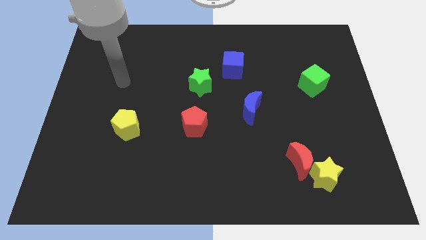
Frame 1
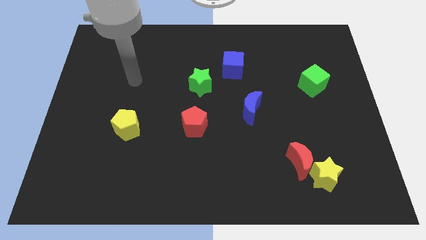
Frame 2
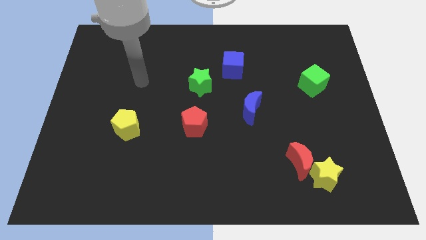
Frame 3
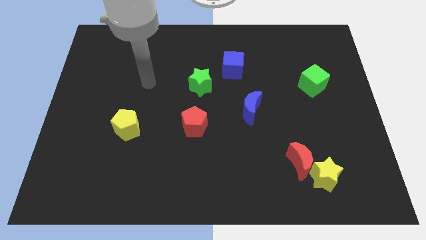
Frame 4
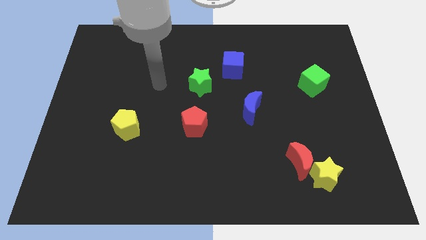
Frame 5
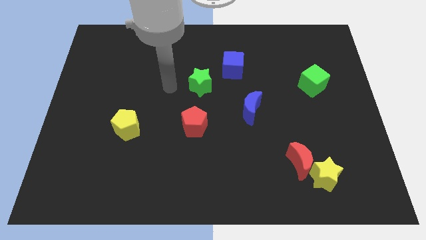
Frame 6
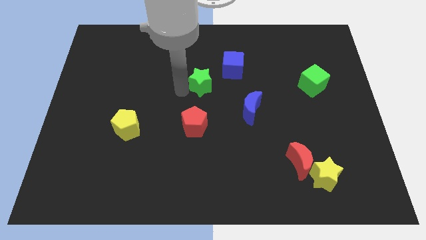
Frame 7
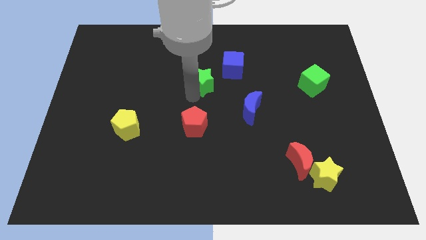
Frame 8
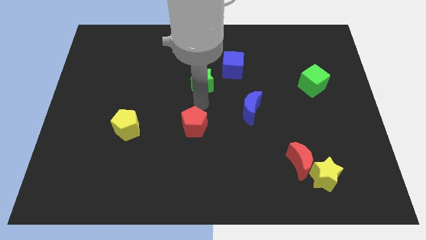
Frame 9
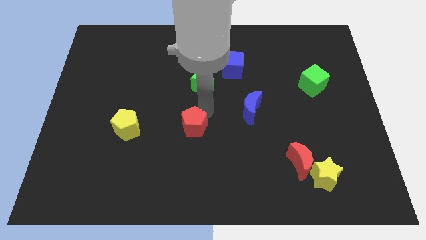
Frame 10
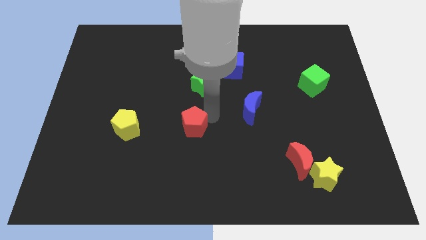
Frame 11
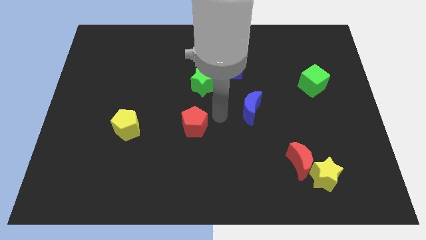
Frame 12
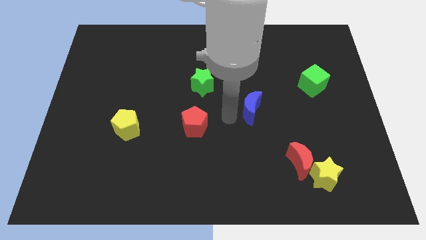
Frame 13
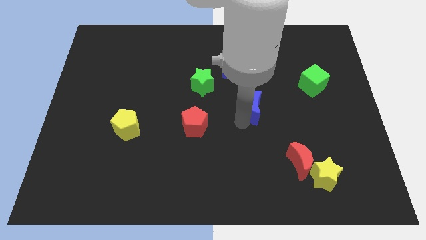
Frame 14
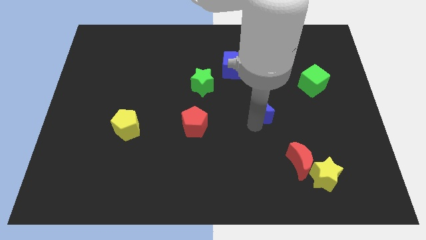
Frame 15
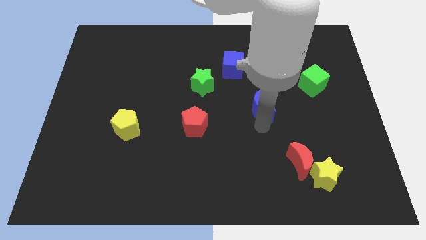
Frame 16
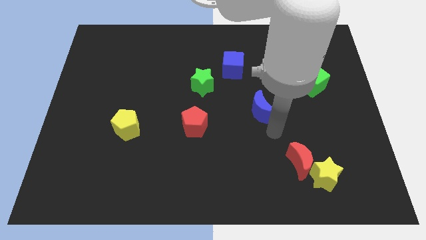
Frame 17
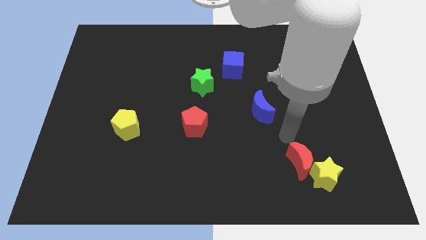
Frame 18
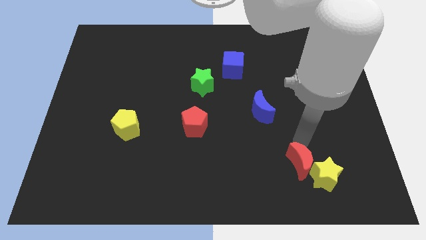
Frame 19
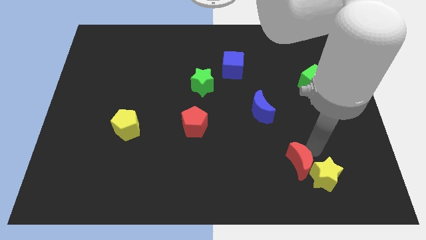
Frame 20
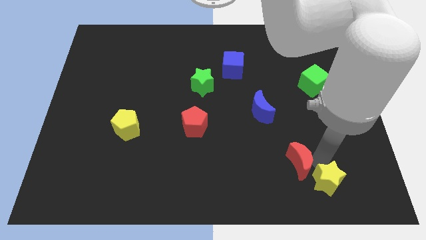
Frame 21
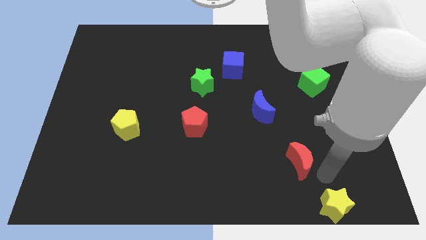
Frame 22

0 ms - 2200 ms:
pull the red moon apart from the yellow star

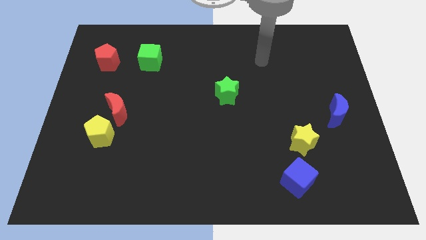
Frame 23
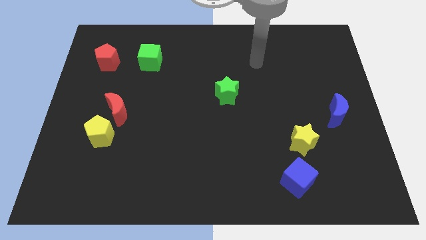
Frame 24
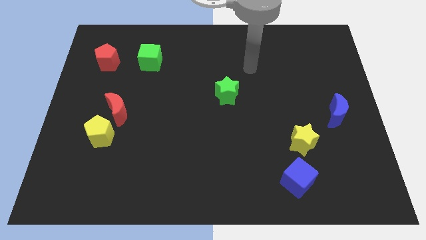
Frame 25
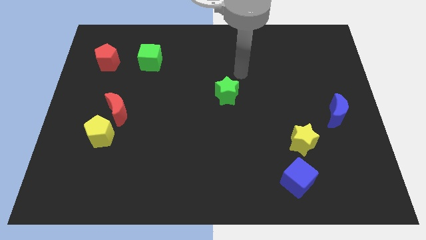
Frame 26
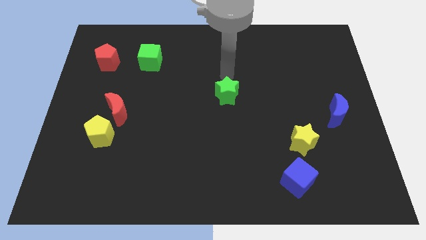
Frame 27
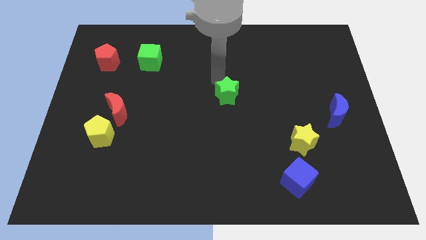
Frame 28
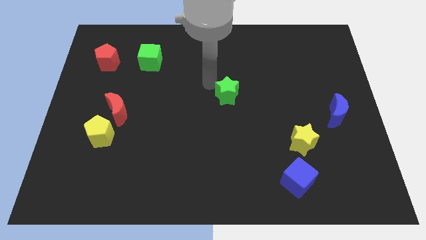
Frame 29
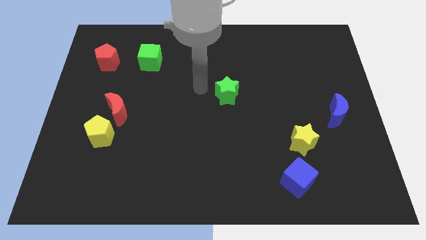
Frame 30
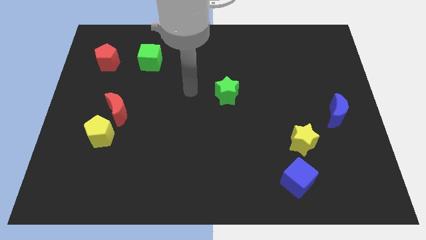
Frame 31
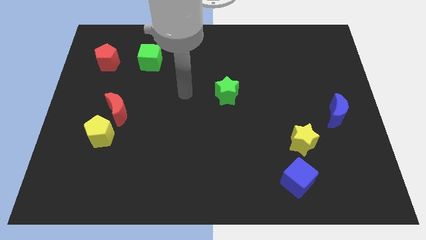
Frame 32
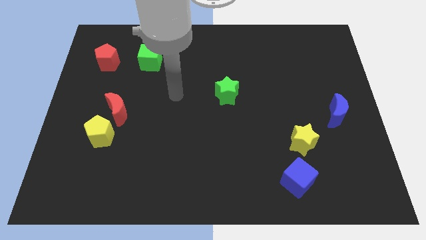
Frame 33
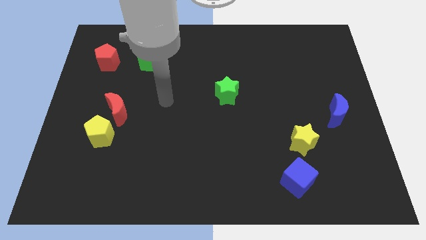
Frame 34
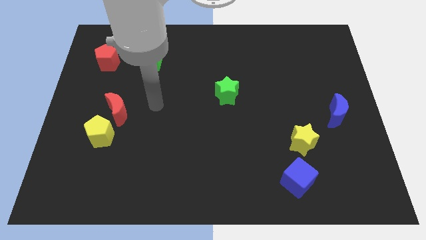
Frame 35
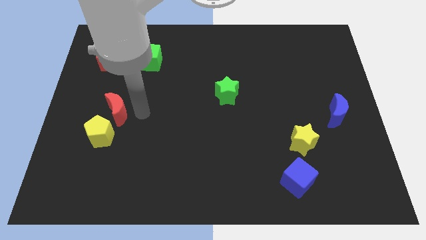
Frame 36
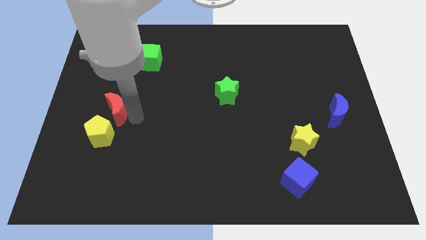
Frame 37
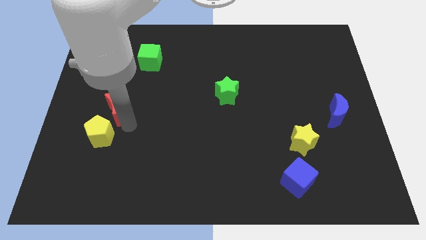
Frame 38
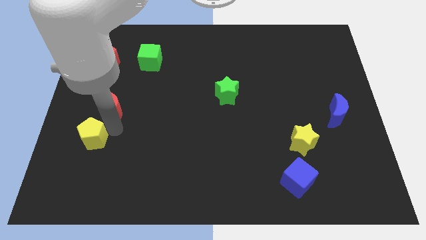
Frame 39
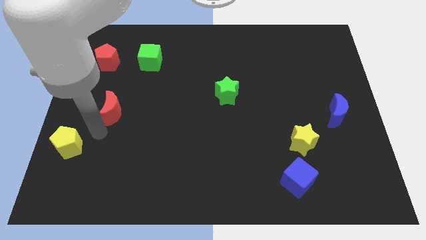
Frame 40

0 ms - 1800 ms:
move the red moon away from the yellow pentagon

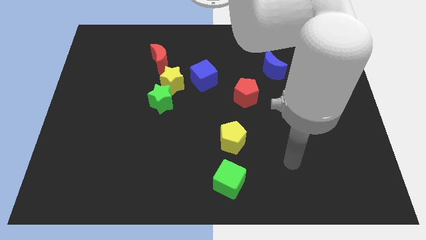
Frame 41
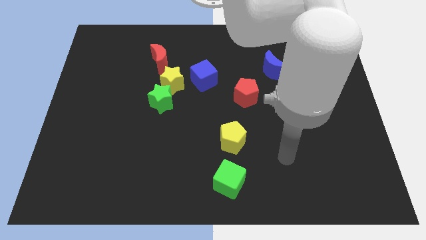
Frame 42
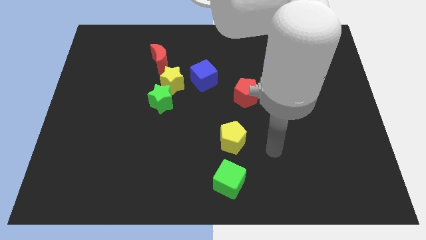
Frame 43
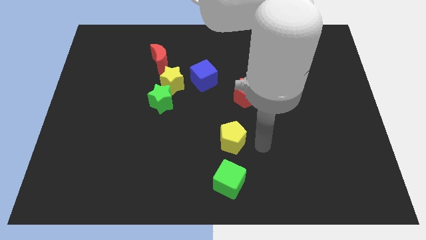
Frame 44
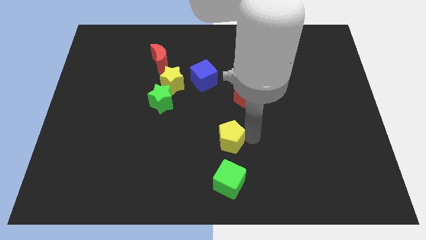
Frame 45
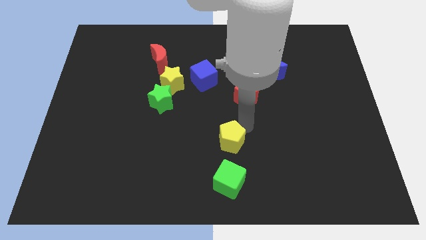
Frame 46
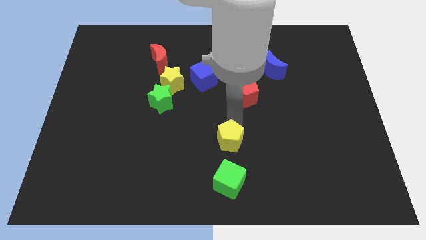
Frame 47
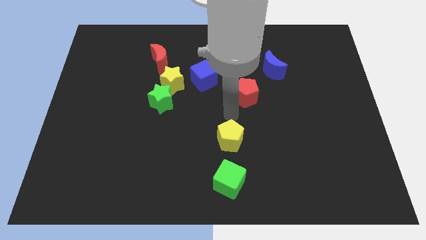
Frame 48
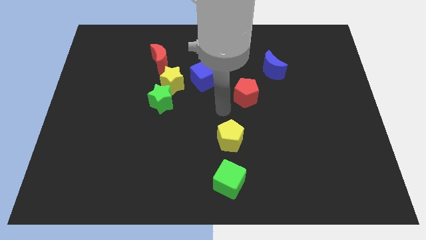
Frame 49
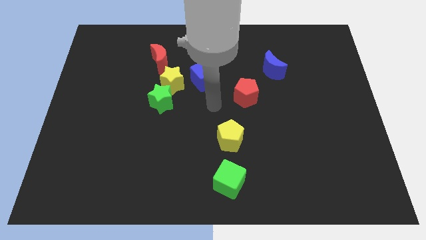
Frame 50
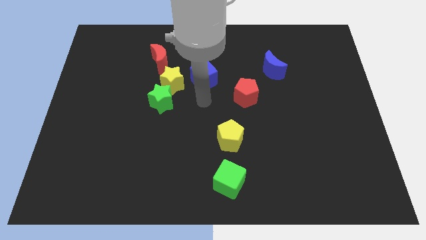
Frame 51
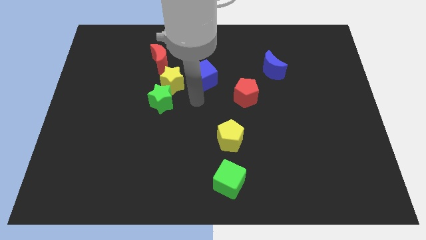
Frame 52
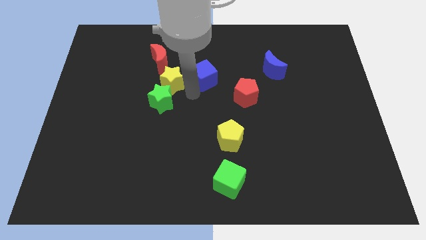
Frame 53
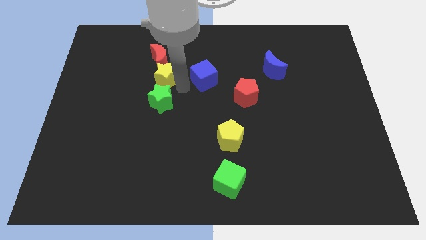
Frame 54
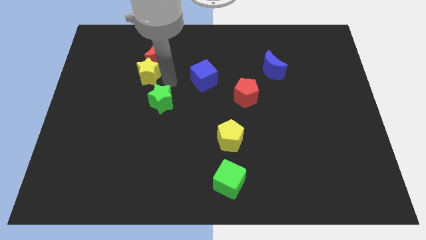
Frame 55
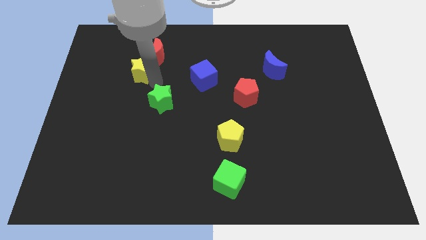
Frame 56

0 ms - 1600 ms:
pull the green star apart from the yellow star

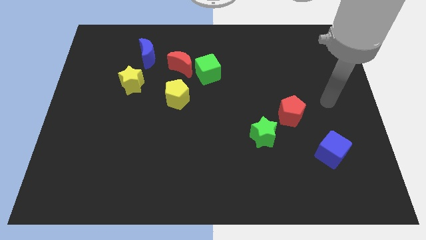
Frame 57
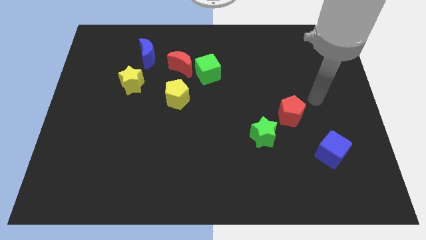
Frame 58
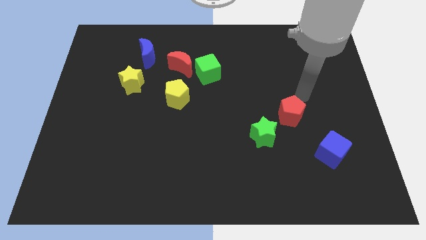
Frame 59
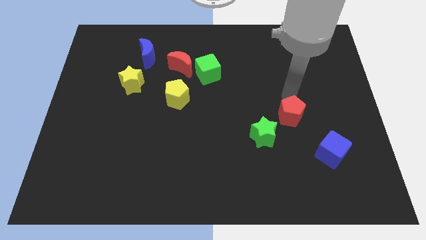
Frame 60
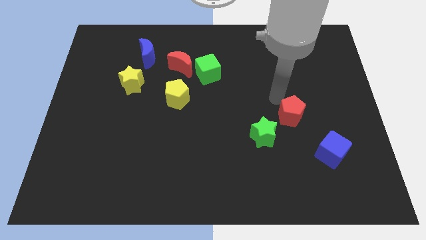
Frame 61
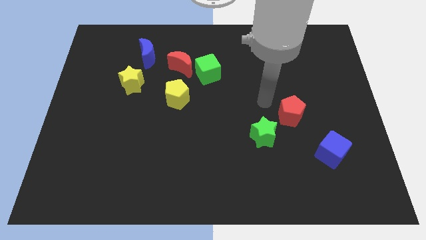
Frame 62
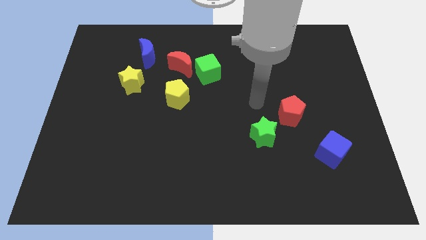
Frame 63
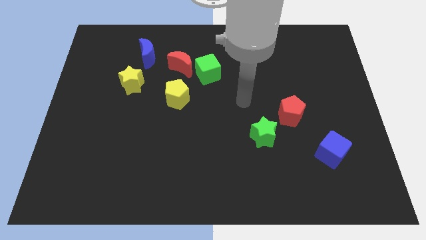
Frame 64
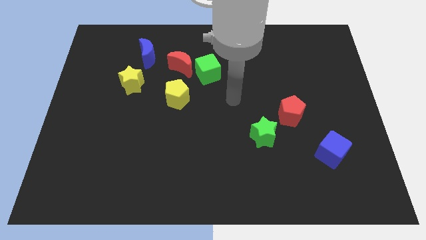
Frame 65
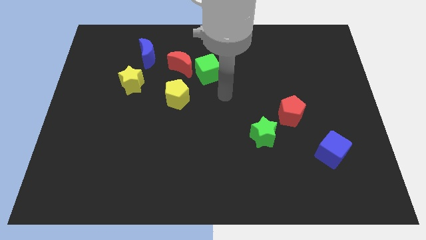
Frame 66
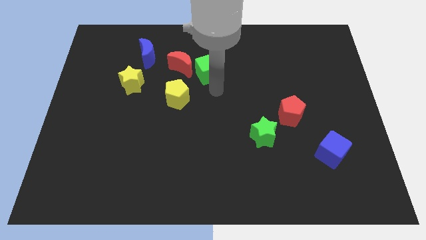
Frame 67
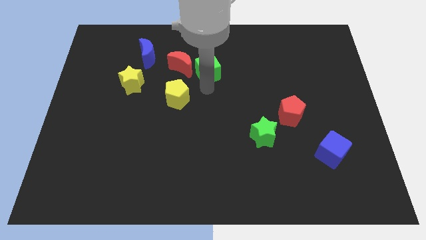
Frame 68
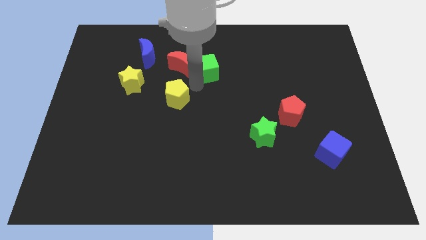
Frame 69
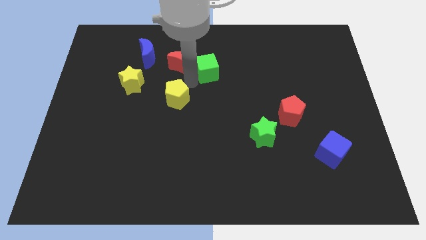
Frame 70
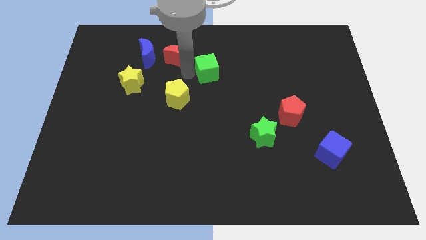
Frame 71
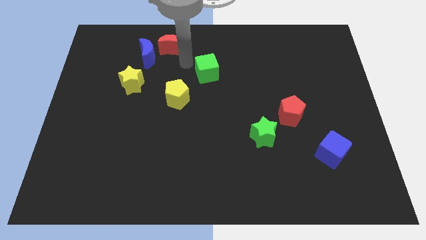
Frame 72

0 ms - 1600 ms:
pull the green cube apart from the red moon

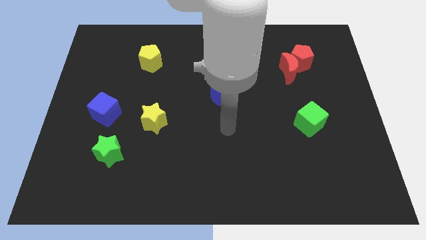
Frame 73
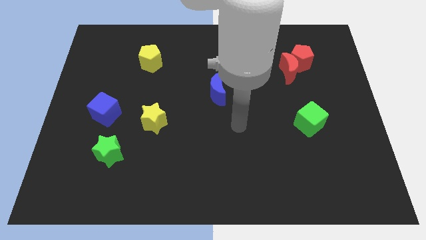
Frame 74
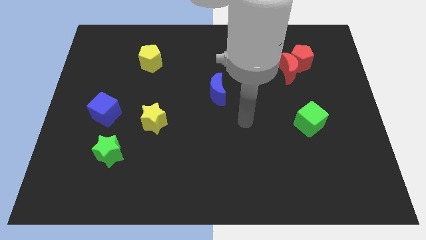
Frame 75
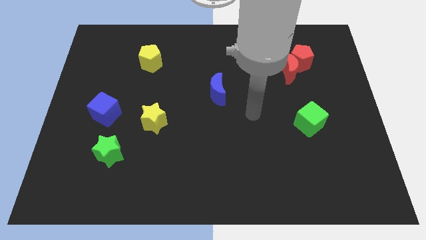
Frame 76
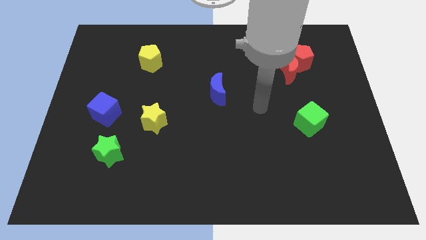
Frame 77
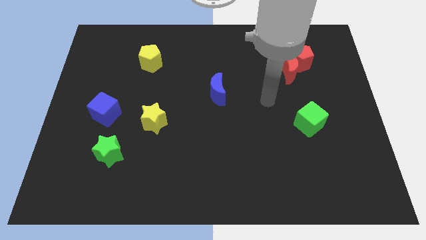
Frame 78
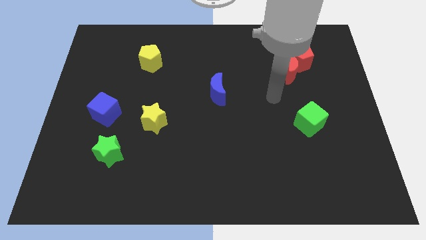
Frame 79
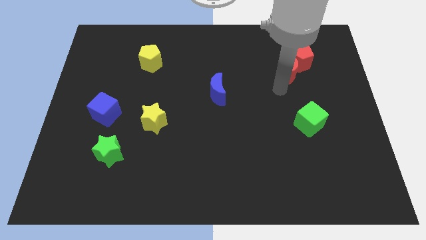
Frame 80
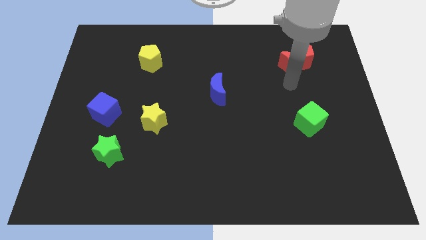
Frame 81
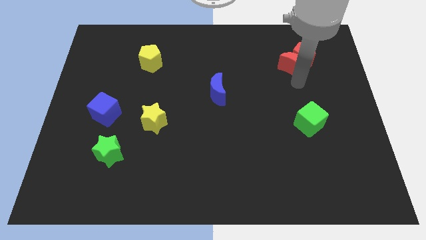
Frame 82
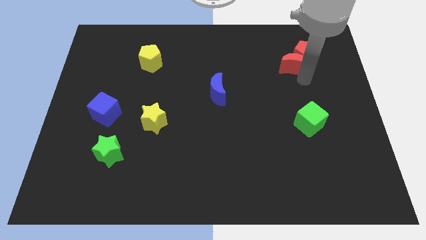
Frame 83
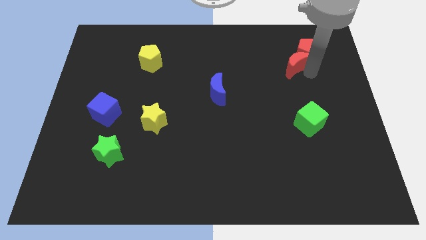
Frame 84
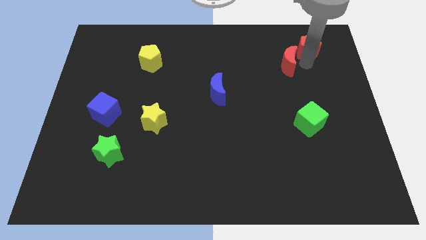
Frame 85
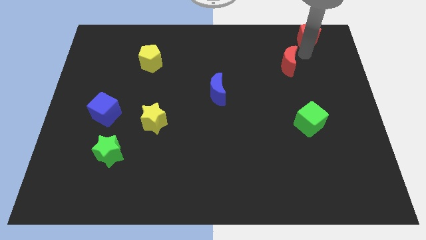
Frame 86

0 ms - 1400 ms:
move the red moon away from the red pentagon

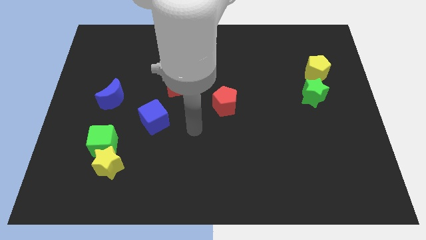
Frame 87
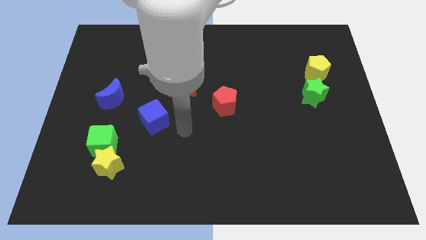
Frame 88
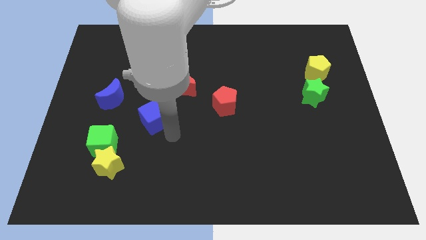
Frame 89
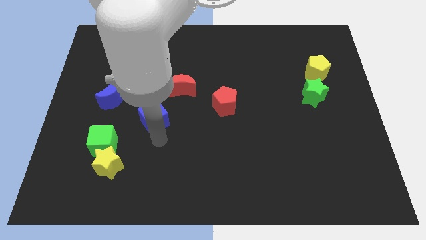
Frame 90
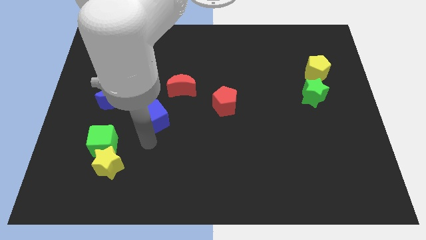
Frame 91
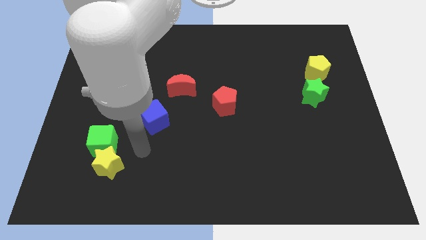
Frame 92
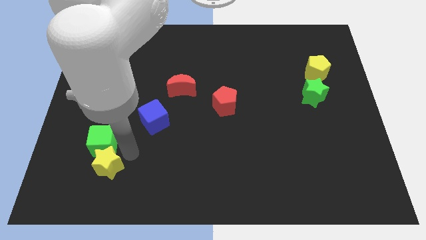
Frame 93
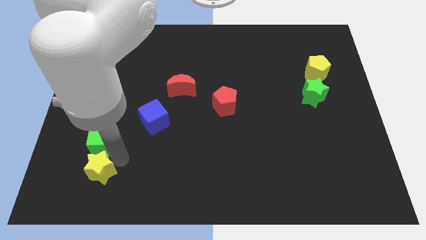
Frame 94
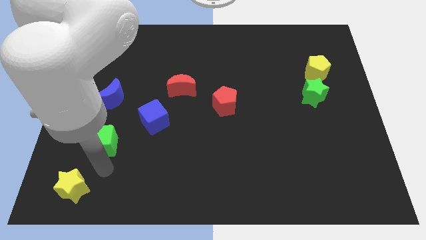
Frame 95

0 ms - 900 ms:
move the green cube away from the yellow star
